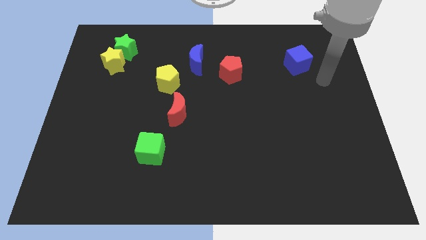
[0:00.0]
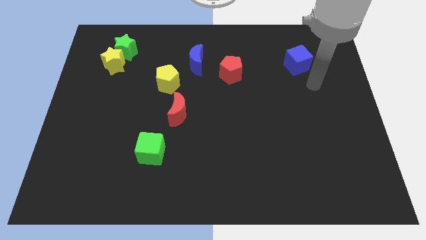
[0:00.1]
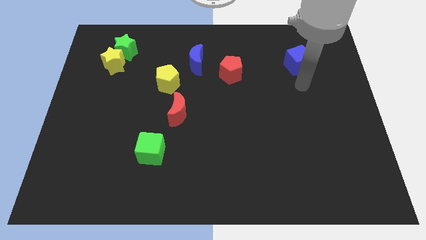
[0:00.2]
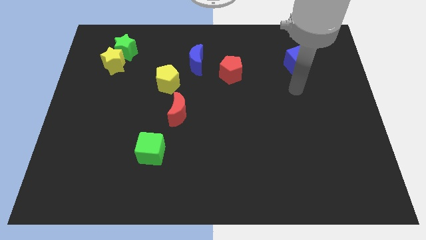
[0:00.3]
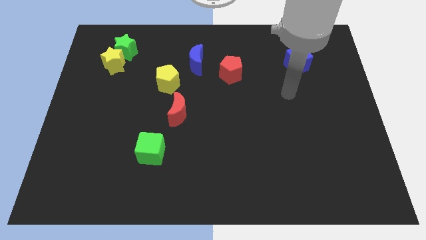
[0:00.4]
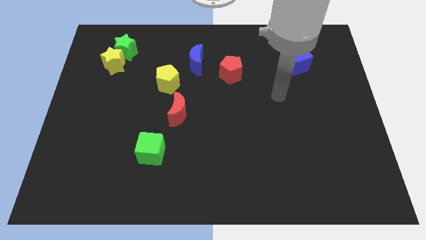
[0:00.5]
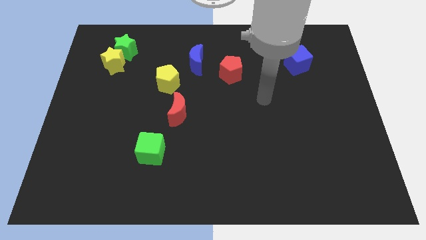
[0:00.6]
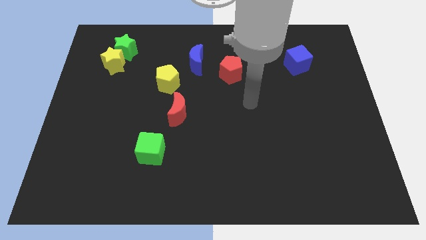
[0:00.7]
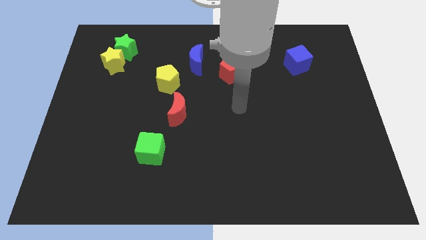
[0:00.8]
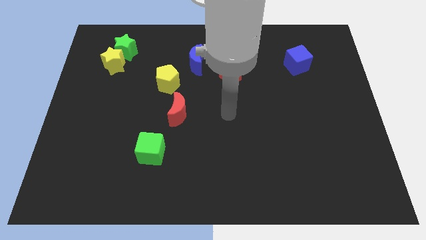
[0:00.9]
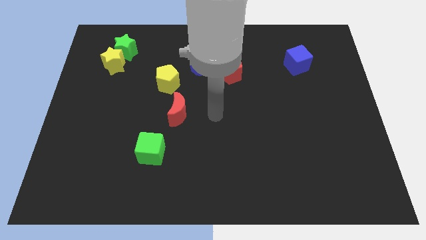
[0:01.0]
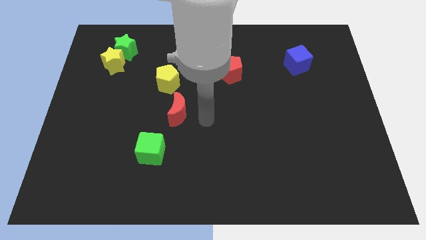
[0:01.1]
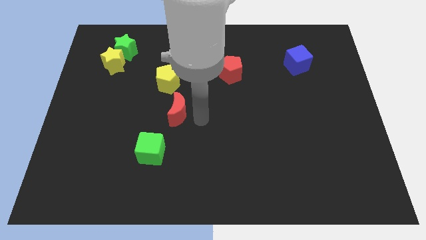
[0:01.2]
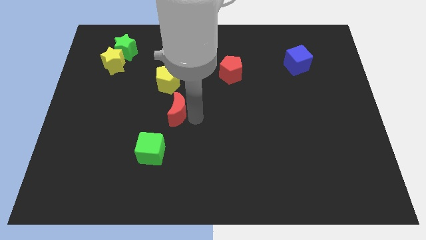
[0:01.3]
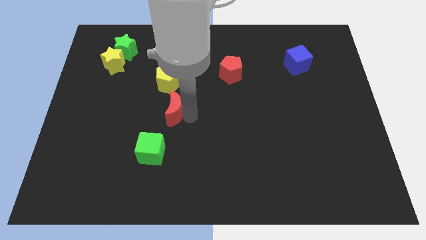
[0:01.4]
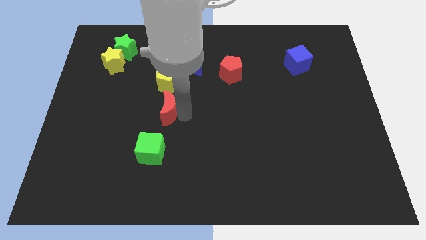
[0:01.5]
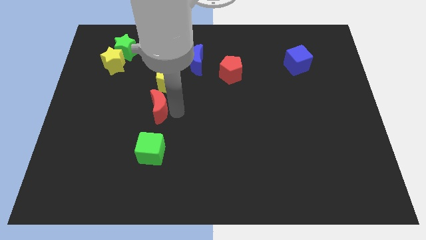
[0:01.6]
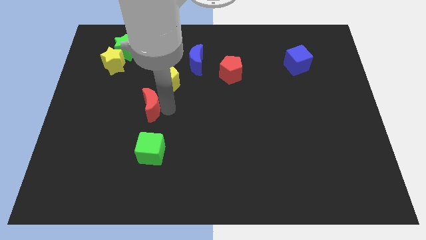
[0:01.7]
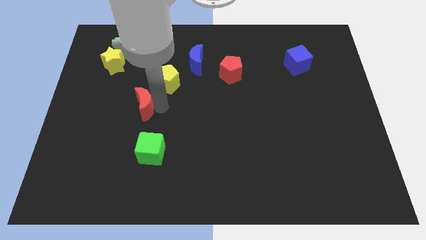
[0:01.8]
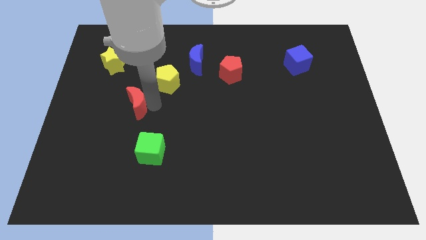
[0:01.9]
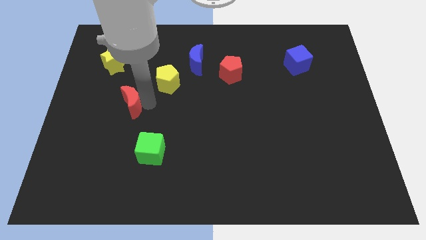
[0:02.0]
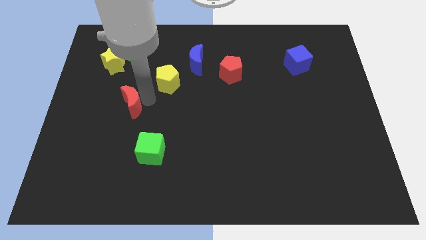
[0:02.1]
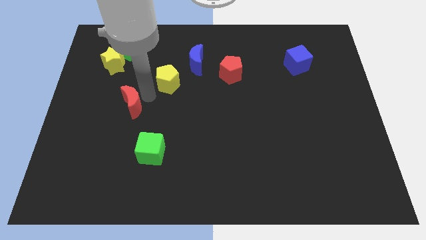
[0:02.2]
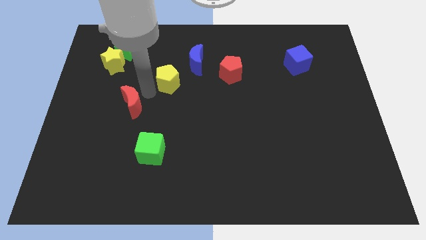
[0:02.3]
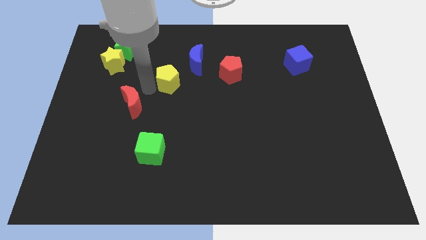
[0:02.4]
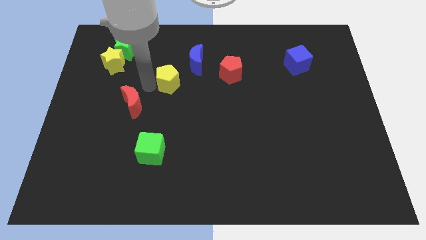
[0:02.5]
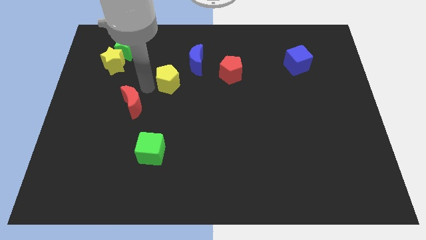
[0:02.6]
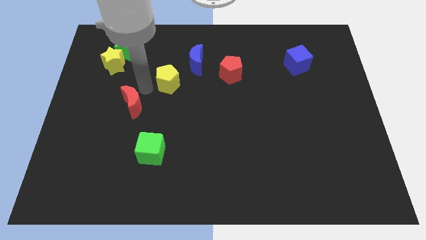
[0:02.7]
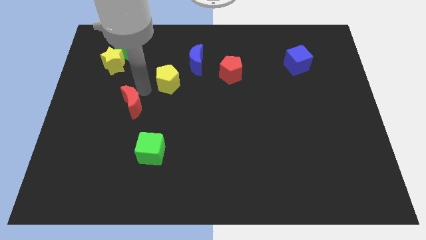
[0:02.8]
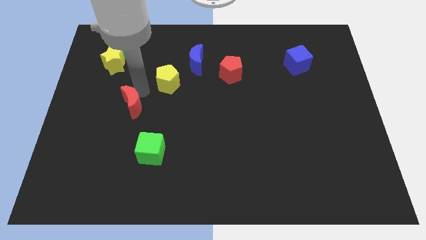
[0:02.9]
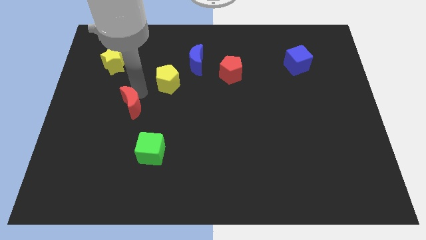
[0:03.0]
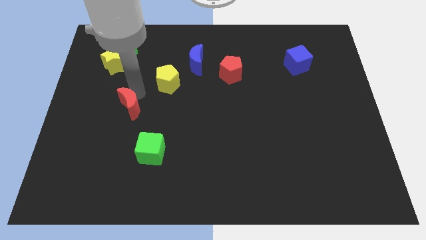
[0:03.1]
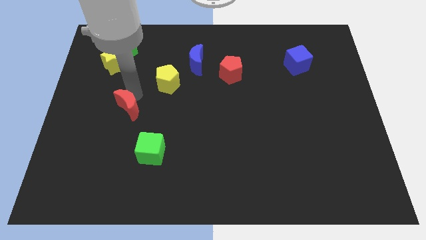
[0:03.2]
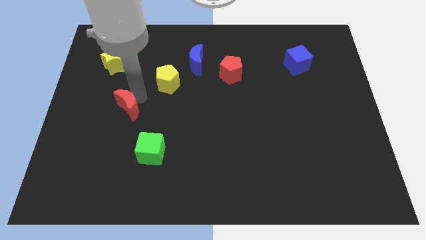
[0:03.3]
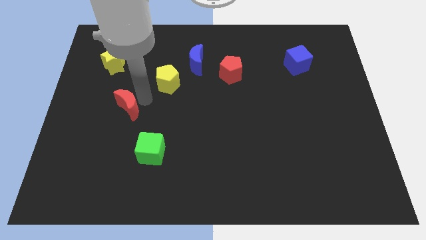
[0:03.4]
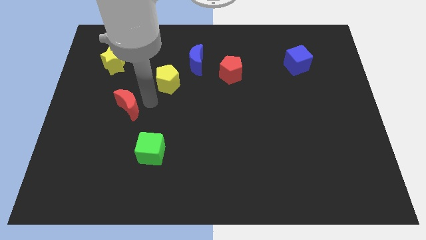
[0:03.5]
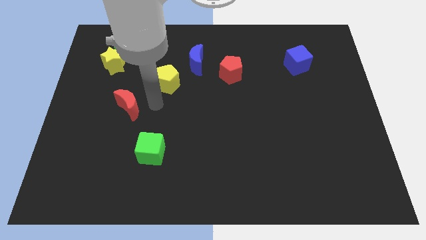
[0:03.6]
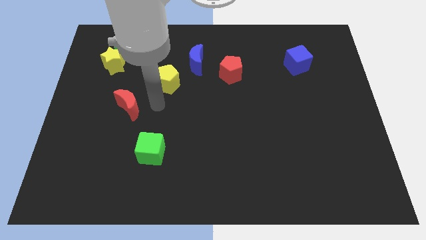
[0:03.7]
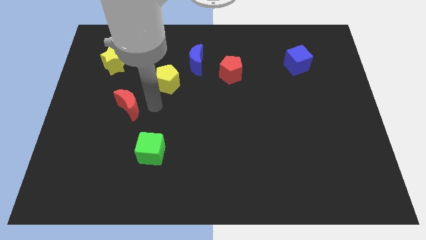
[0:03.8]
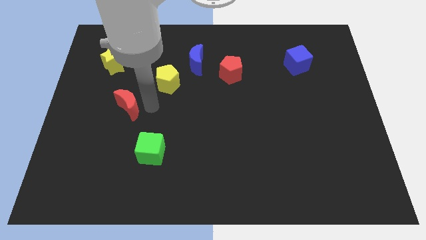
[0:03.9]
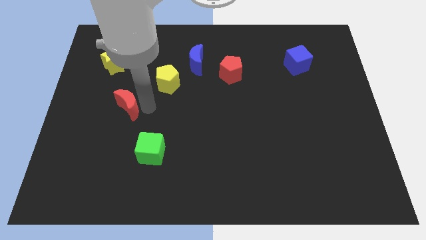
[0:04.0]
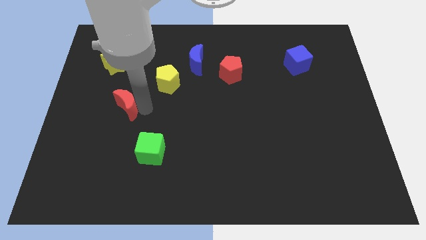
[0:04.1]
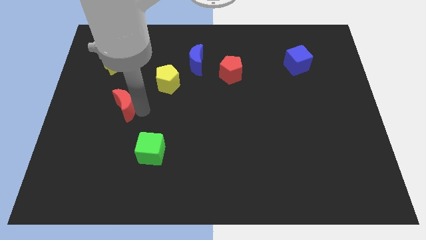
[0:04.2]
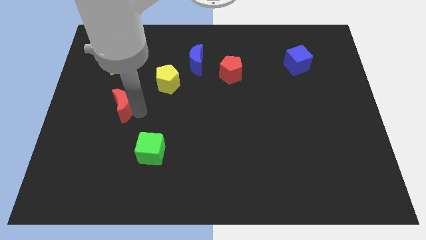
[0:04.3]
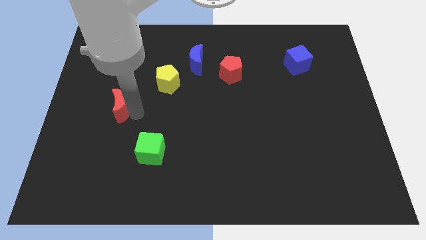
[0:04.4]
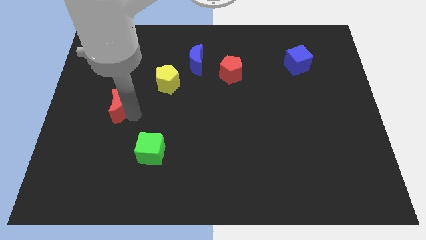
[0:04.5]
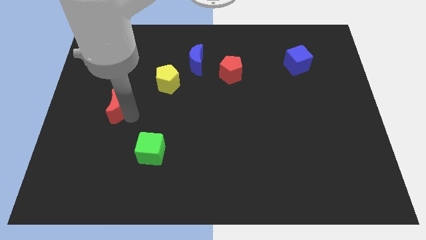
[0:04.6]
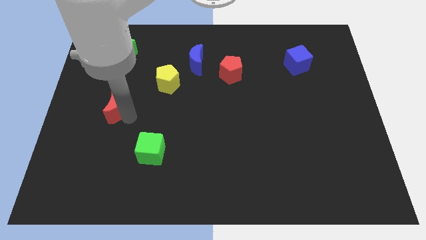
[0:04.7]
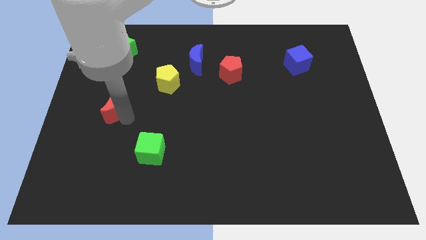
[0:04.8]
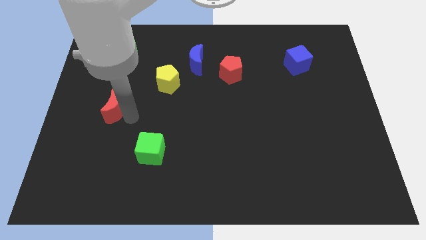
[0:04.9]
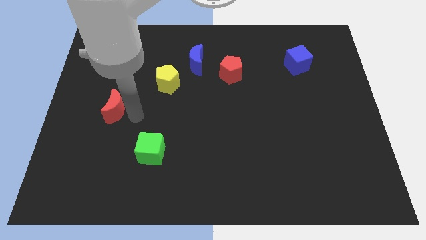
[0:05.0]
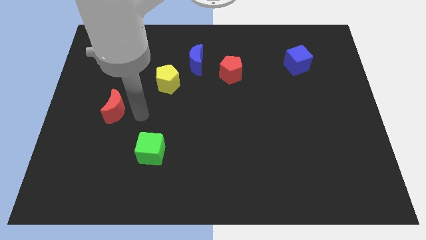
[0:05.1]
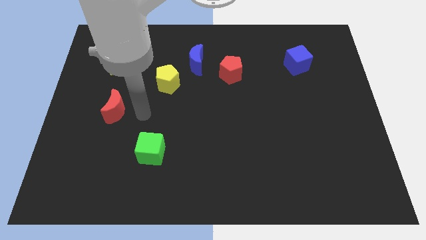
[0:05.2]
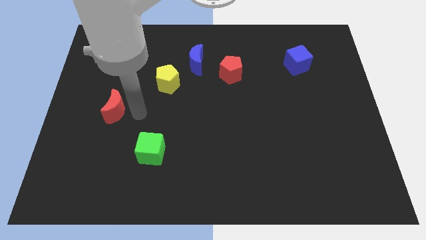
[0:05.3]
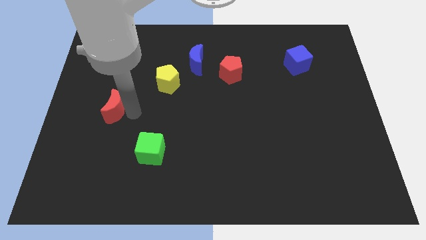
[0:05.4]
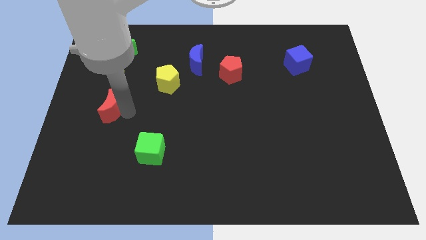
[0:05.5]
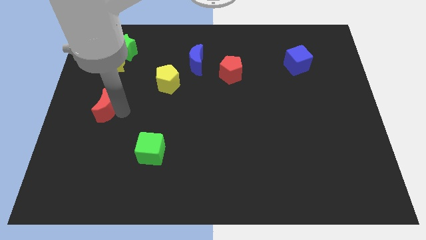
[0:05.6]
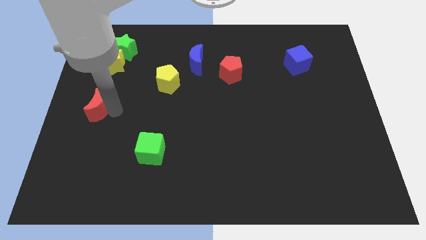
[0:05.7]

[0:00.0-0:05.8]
slide the red moon to the left side

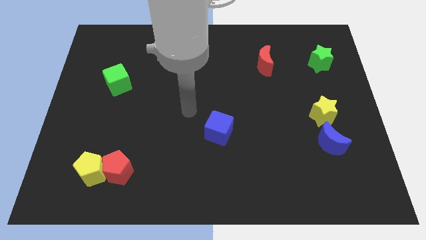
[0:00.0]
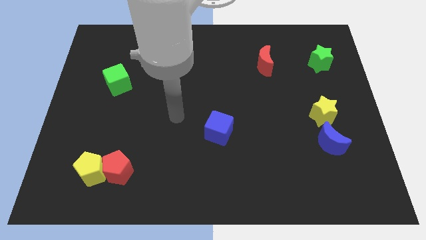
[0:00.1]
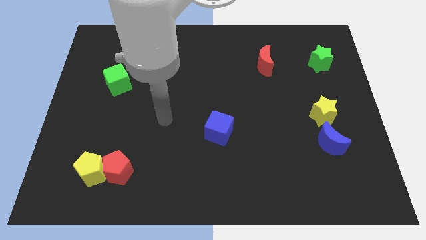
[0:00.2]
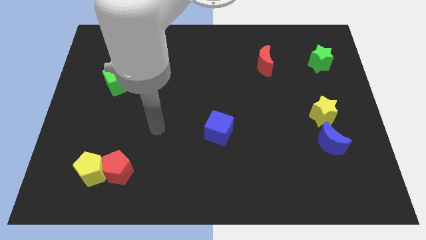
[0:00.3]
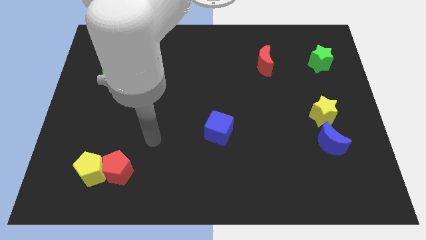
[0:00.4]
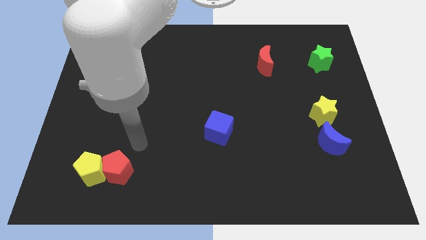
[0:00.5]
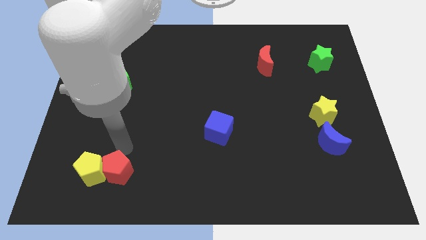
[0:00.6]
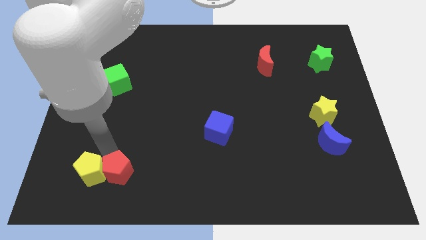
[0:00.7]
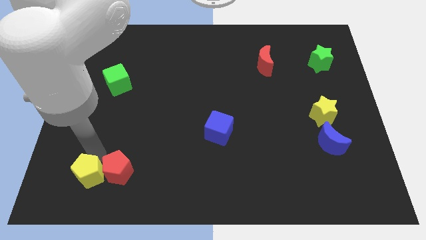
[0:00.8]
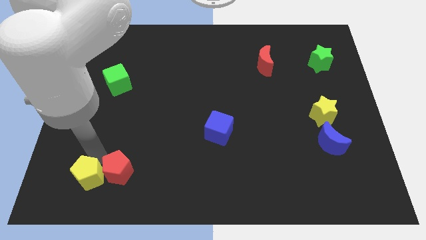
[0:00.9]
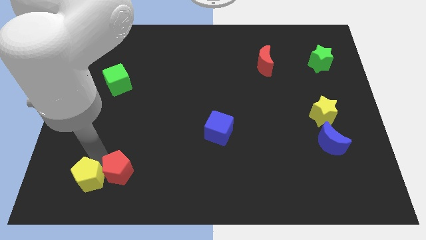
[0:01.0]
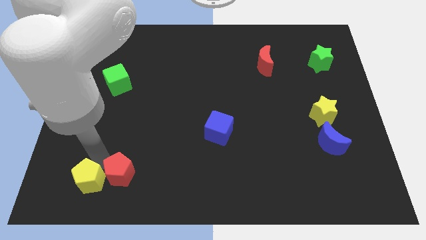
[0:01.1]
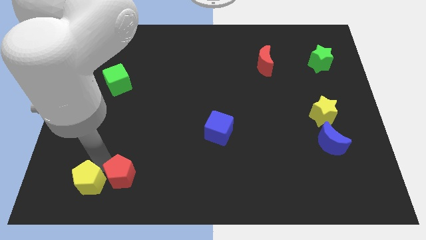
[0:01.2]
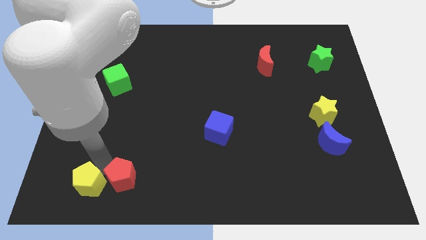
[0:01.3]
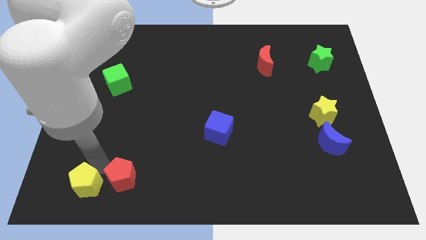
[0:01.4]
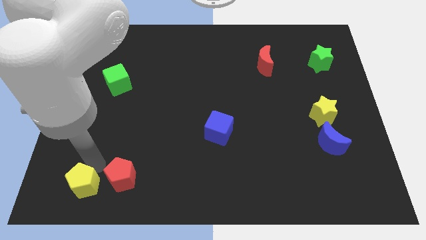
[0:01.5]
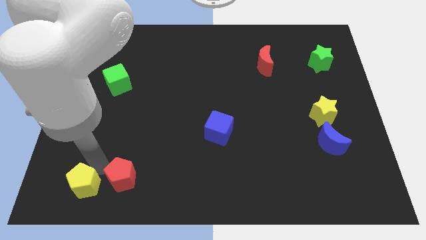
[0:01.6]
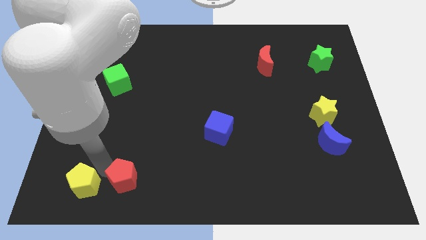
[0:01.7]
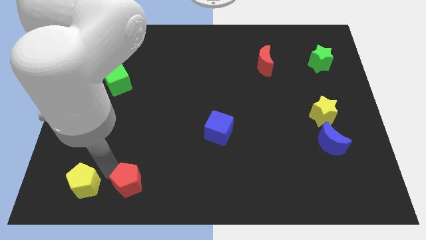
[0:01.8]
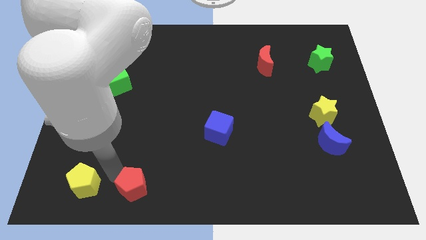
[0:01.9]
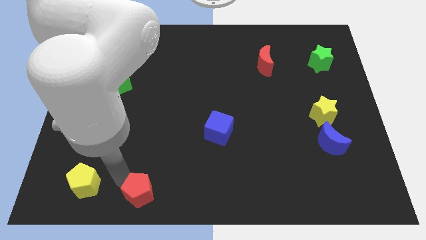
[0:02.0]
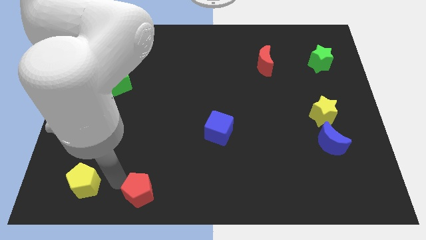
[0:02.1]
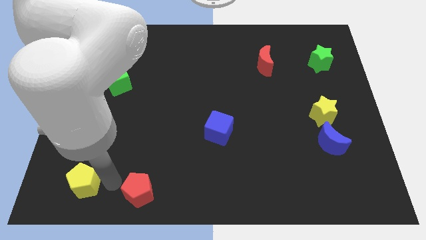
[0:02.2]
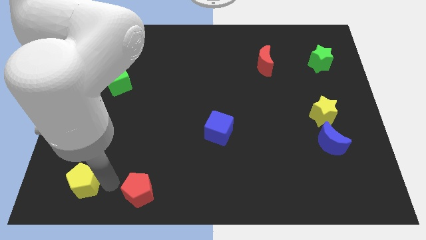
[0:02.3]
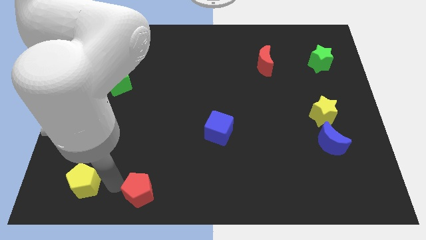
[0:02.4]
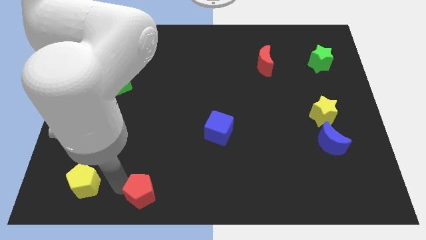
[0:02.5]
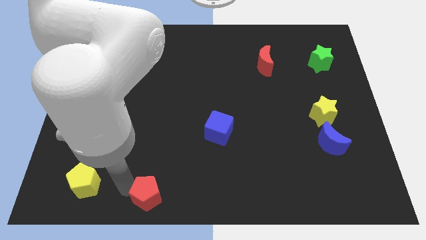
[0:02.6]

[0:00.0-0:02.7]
move the red pentagon to the bottom
